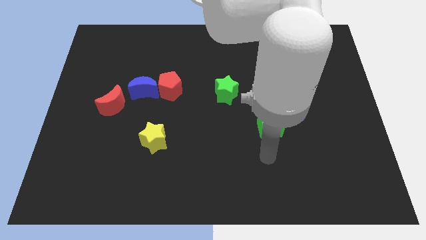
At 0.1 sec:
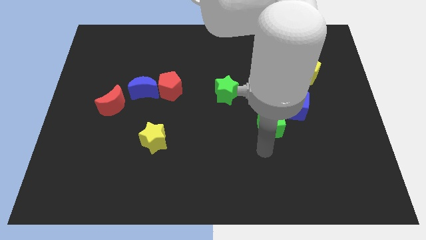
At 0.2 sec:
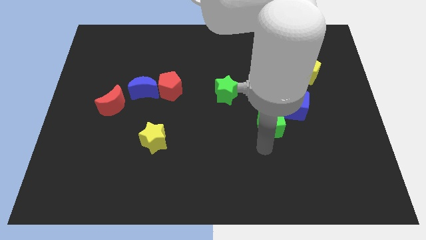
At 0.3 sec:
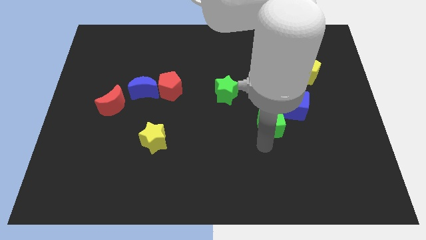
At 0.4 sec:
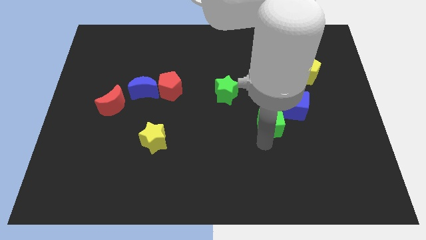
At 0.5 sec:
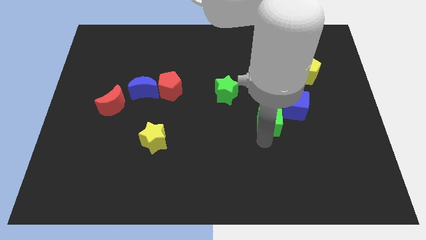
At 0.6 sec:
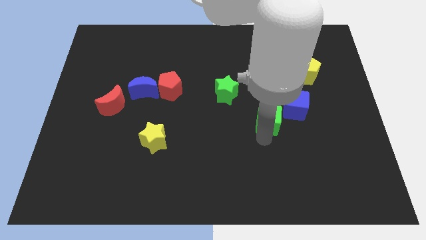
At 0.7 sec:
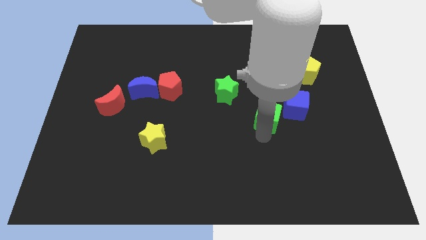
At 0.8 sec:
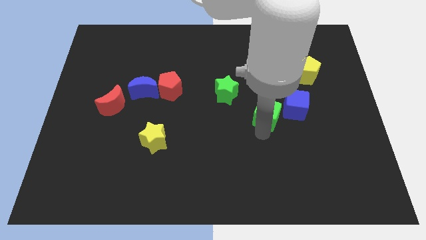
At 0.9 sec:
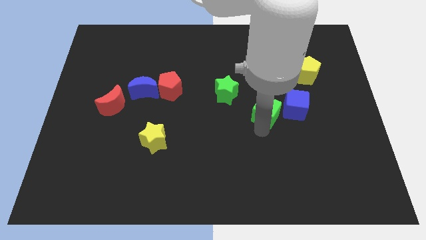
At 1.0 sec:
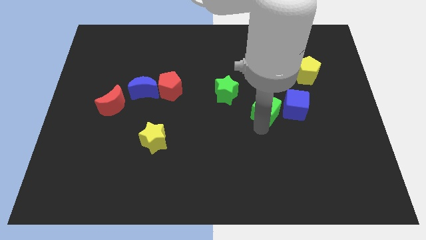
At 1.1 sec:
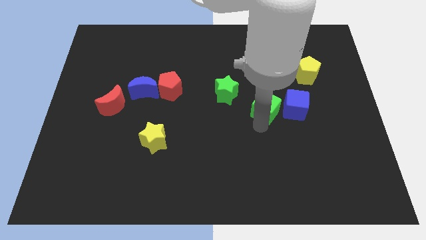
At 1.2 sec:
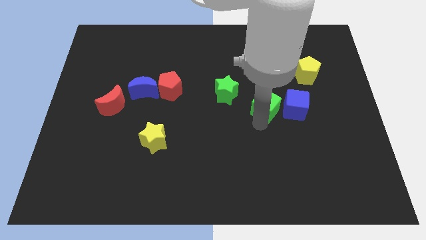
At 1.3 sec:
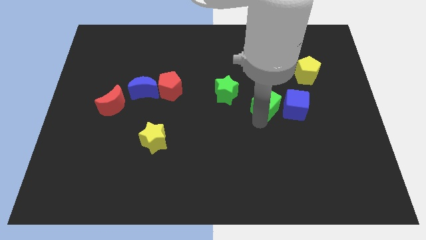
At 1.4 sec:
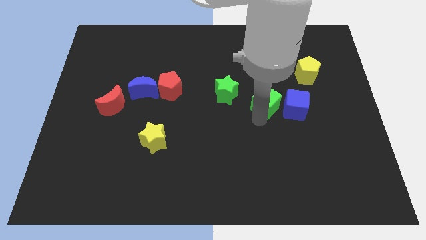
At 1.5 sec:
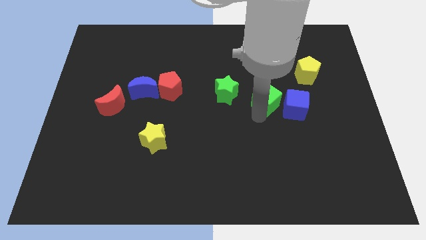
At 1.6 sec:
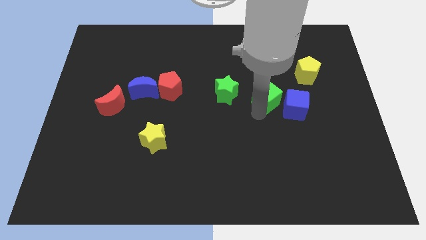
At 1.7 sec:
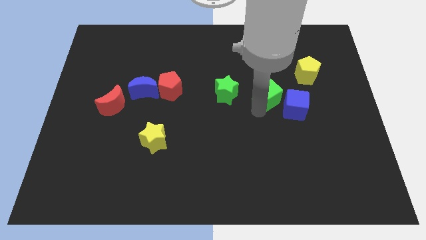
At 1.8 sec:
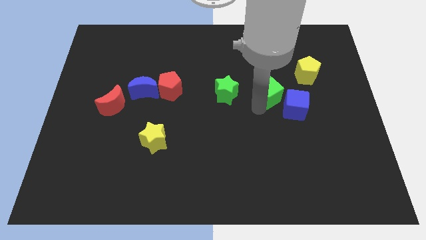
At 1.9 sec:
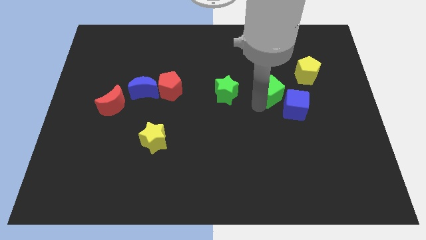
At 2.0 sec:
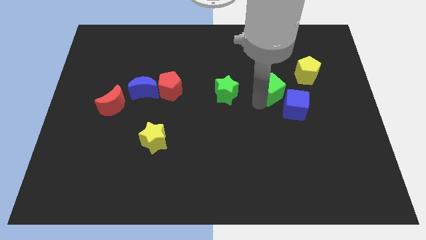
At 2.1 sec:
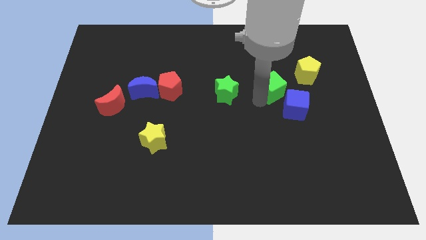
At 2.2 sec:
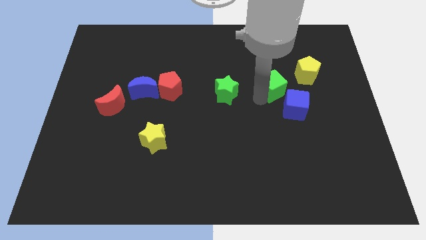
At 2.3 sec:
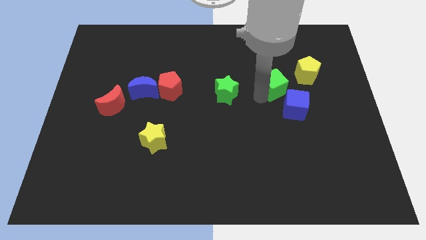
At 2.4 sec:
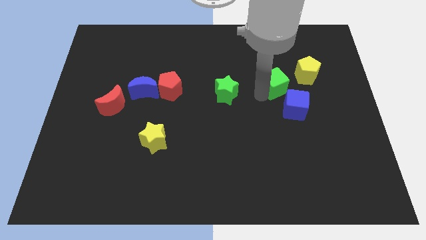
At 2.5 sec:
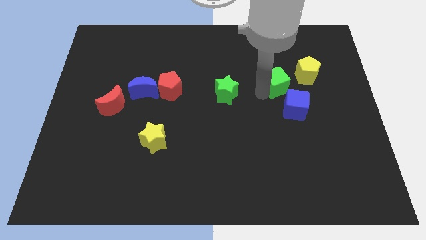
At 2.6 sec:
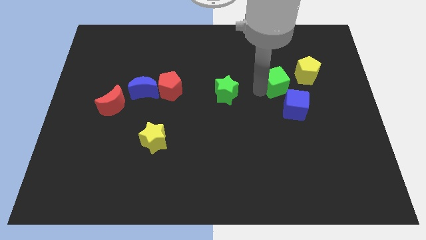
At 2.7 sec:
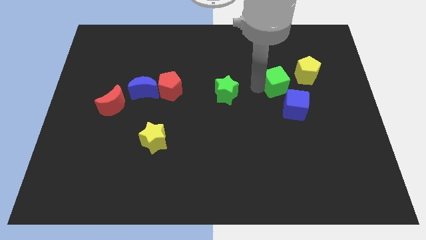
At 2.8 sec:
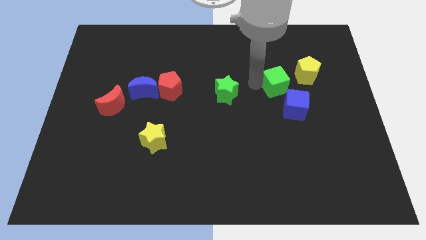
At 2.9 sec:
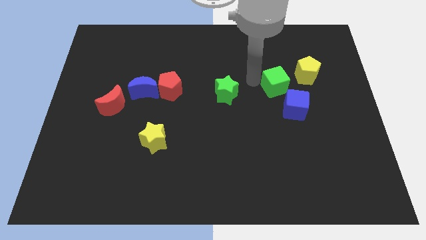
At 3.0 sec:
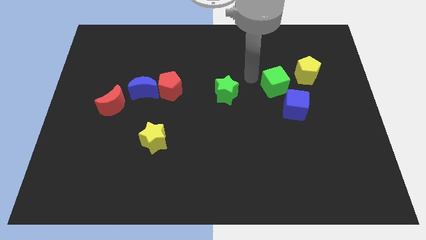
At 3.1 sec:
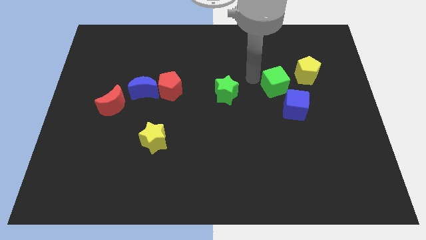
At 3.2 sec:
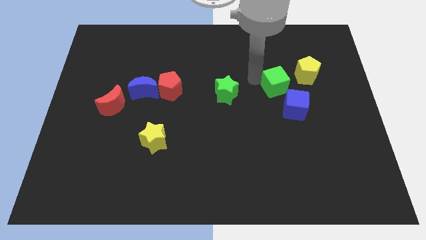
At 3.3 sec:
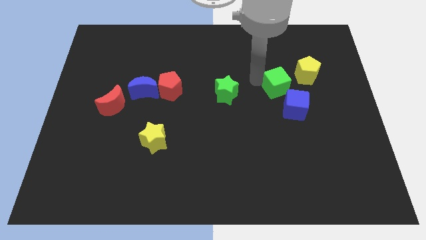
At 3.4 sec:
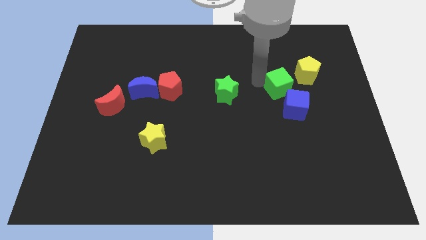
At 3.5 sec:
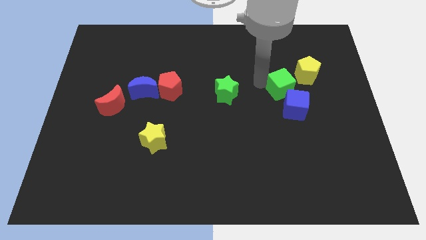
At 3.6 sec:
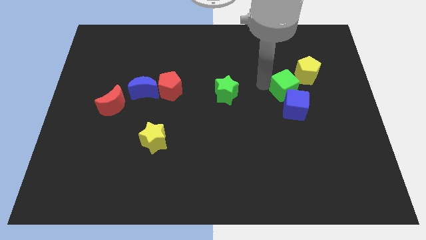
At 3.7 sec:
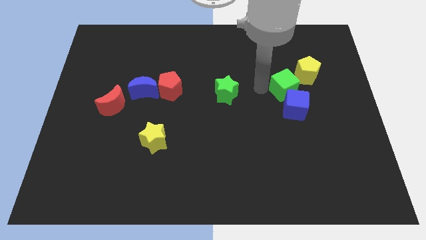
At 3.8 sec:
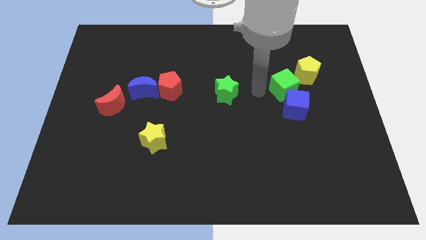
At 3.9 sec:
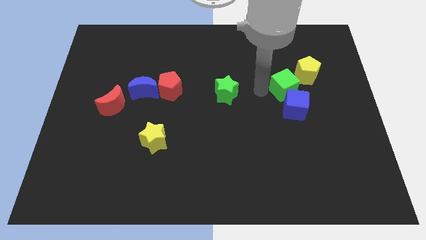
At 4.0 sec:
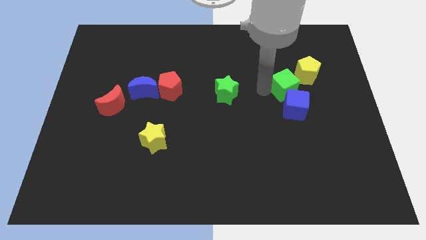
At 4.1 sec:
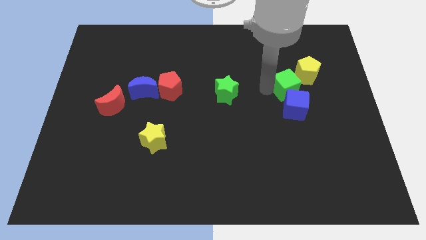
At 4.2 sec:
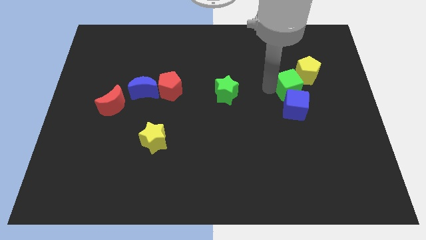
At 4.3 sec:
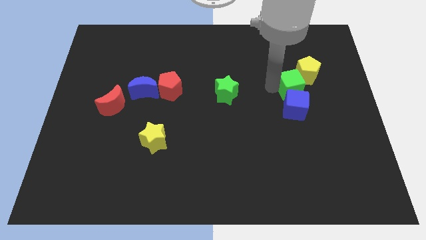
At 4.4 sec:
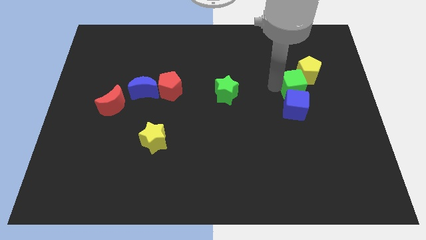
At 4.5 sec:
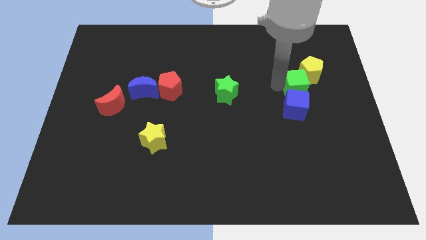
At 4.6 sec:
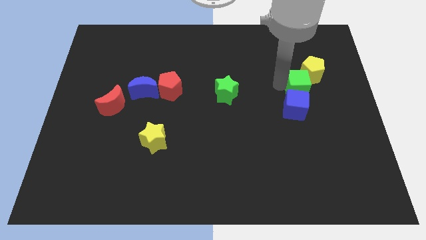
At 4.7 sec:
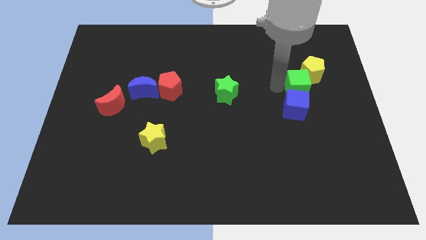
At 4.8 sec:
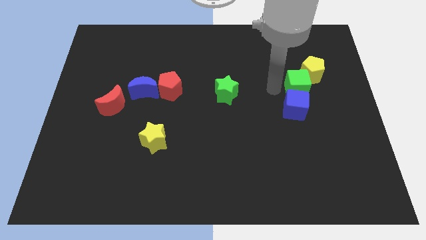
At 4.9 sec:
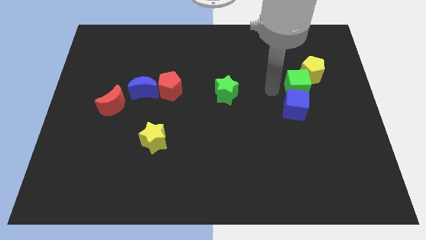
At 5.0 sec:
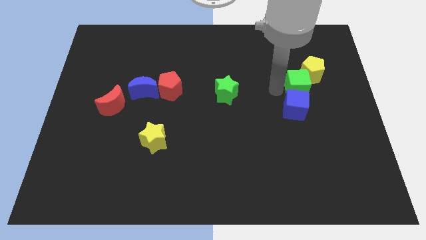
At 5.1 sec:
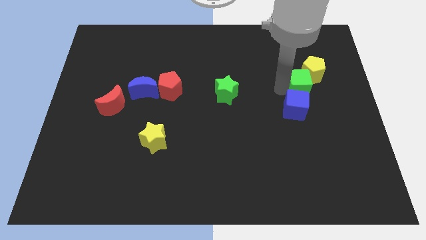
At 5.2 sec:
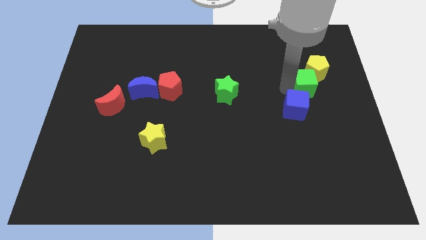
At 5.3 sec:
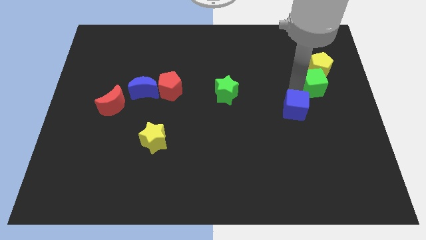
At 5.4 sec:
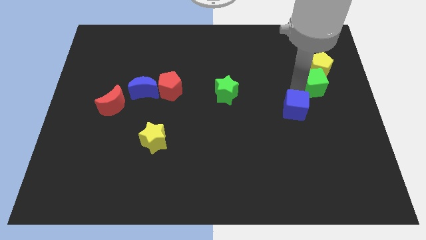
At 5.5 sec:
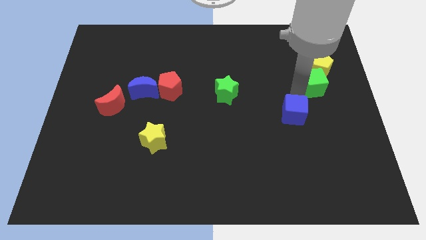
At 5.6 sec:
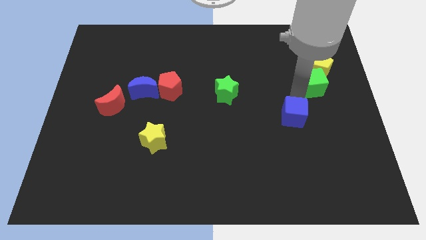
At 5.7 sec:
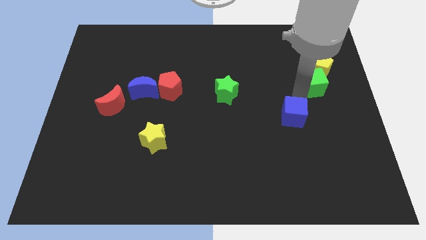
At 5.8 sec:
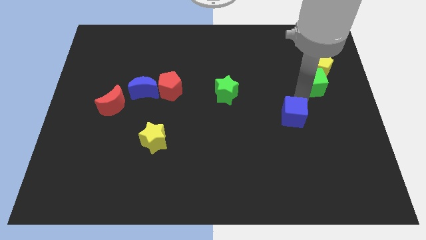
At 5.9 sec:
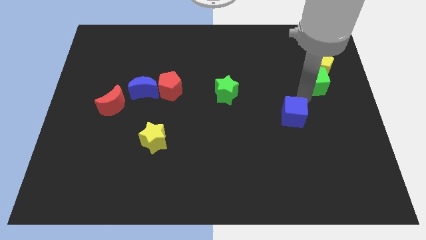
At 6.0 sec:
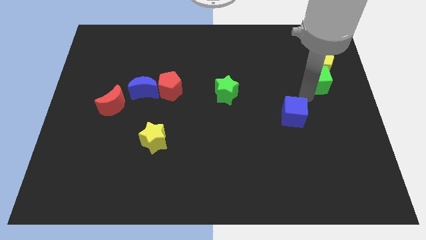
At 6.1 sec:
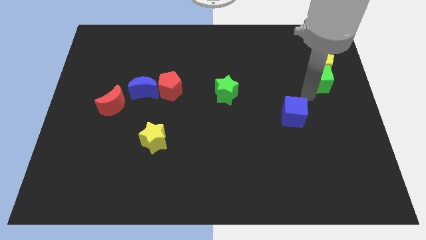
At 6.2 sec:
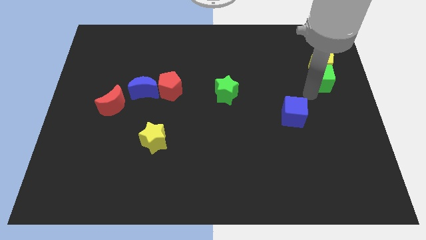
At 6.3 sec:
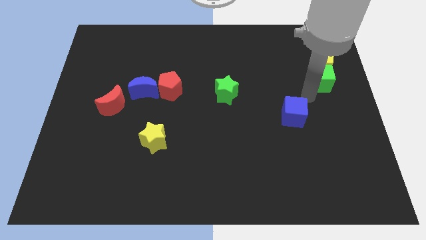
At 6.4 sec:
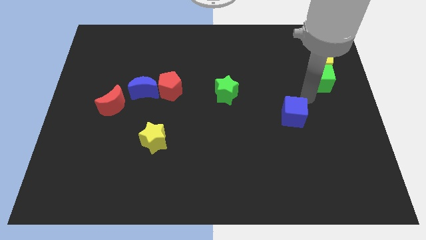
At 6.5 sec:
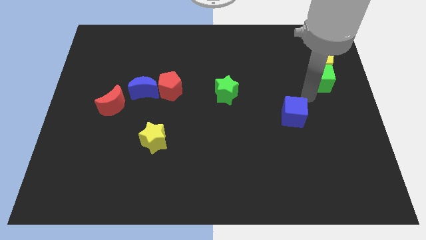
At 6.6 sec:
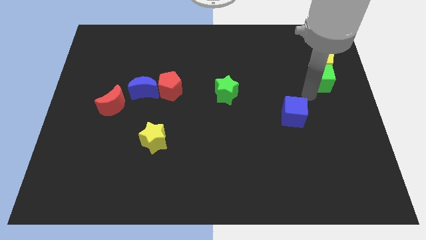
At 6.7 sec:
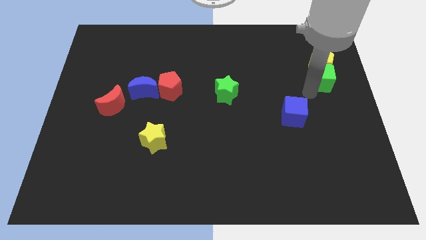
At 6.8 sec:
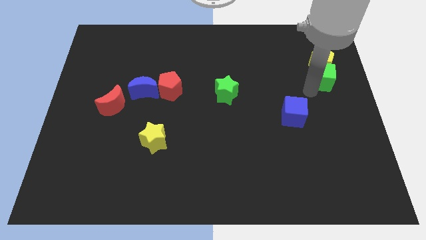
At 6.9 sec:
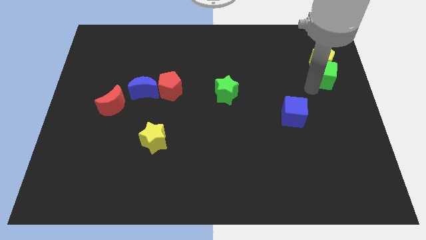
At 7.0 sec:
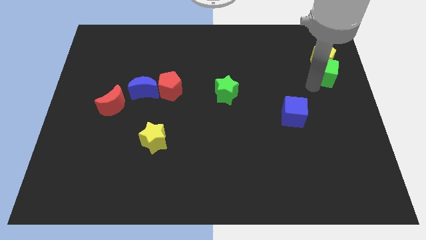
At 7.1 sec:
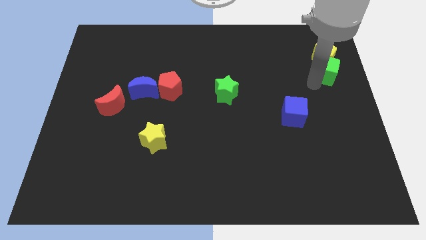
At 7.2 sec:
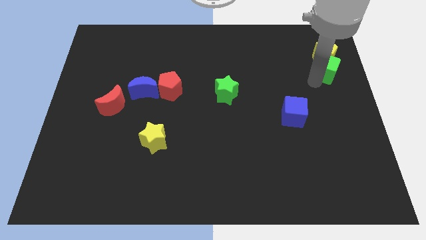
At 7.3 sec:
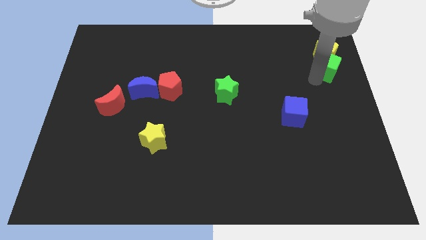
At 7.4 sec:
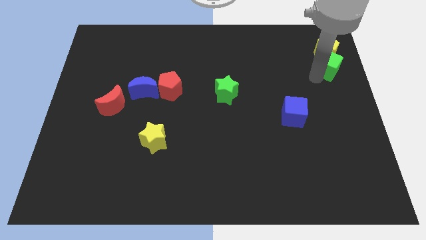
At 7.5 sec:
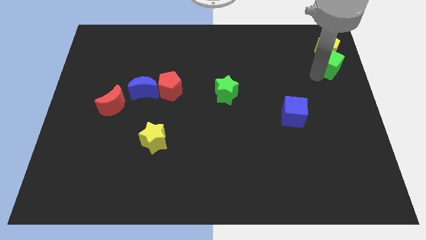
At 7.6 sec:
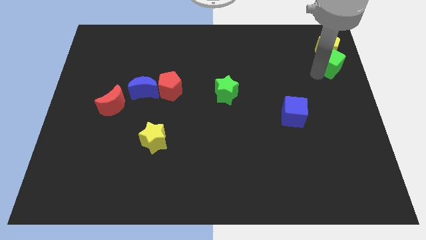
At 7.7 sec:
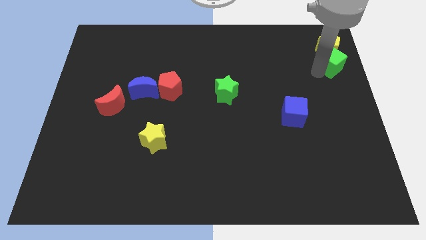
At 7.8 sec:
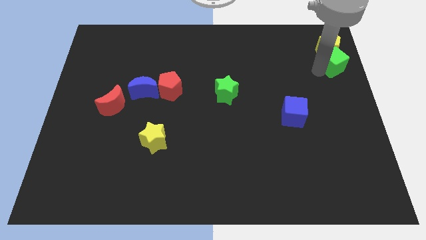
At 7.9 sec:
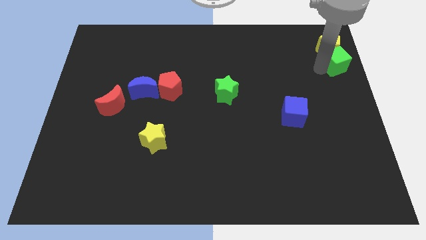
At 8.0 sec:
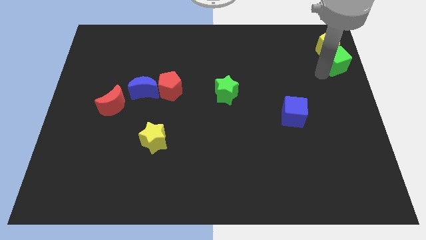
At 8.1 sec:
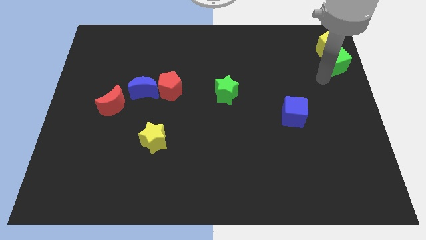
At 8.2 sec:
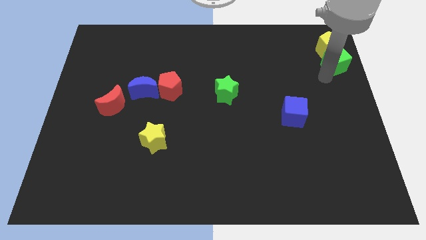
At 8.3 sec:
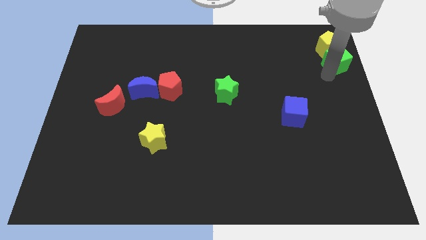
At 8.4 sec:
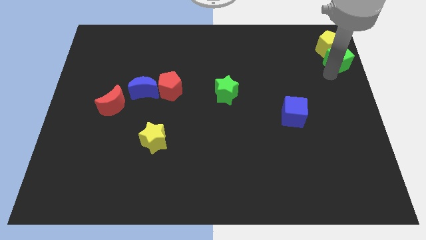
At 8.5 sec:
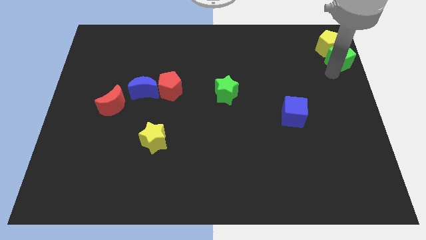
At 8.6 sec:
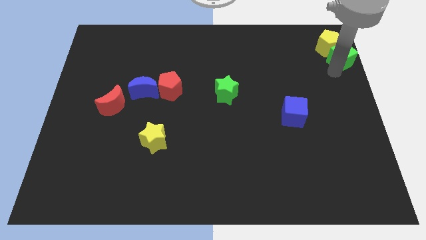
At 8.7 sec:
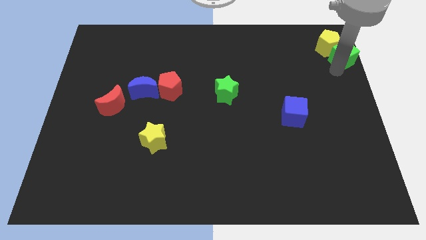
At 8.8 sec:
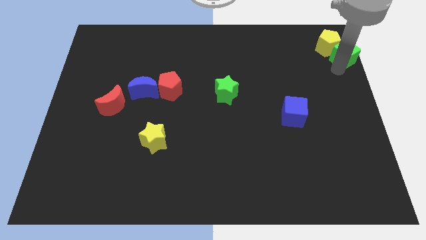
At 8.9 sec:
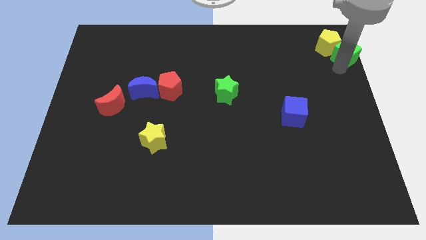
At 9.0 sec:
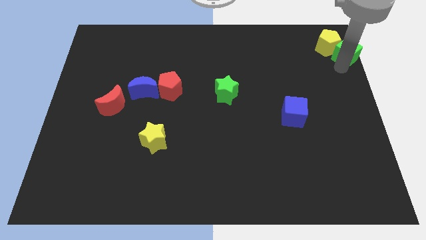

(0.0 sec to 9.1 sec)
move the green cube to the top right
